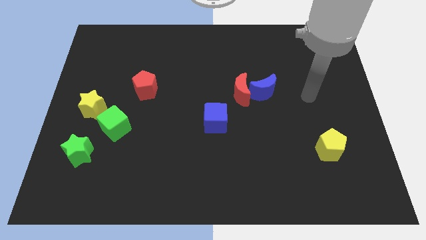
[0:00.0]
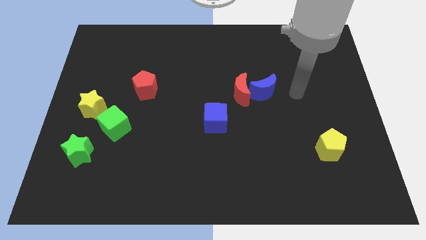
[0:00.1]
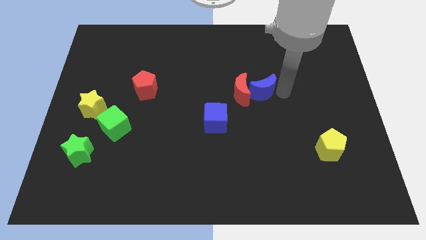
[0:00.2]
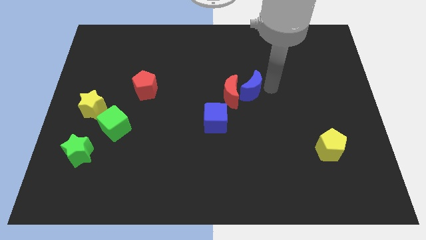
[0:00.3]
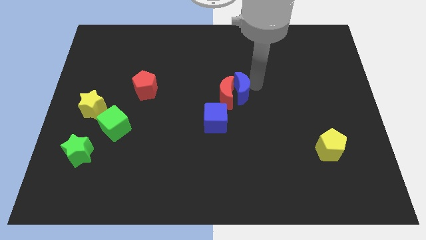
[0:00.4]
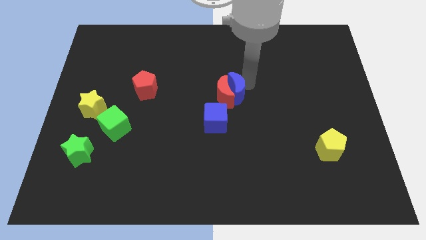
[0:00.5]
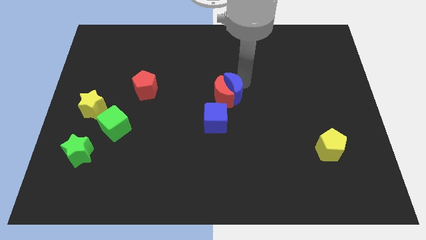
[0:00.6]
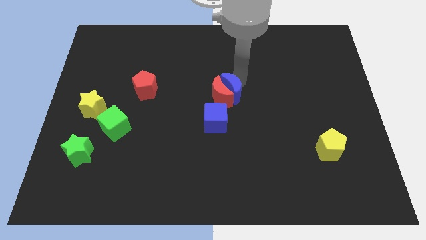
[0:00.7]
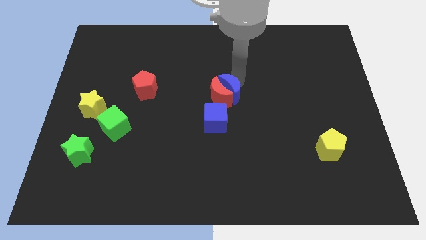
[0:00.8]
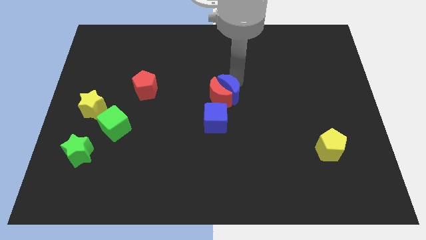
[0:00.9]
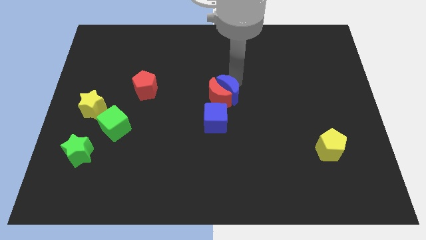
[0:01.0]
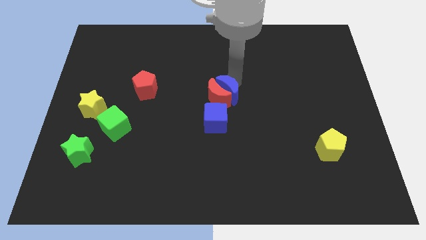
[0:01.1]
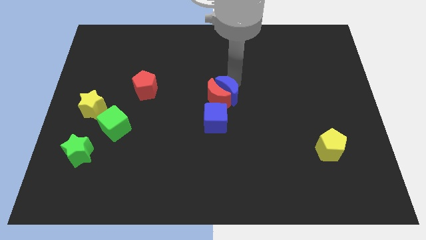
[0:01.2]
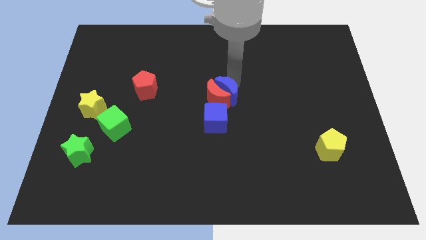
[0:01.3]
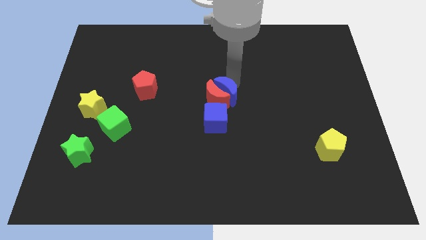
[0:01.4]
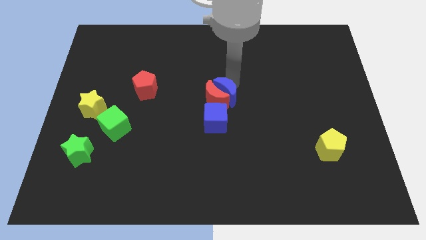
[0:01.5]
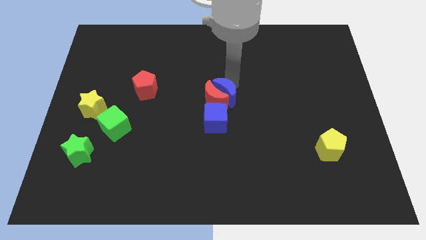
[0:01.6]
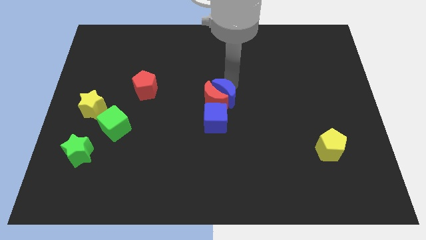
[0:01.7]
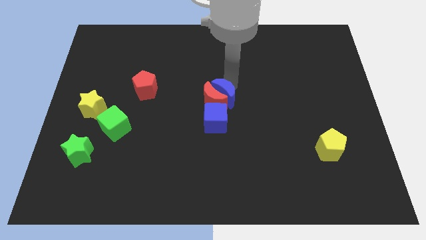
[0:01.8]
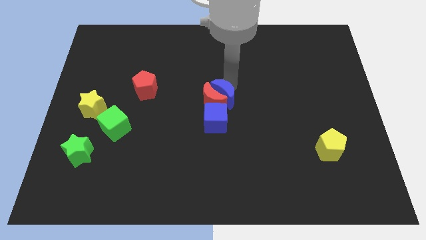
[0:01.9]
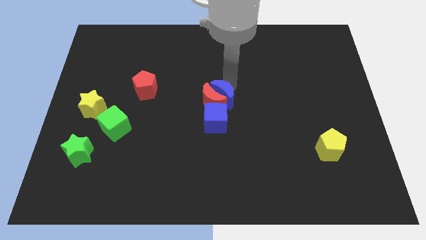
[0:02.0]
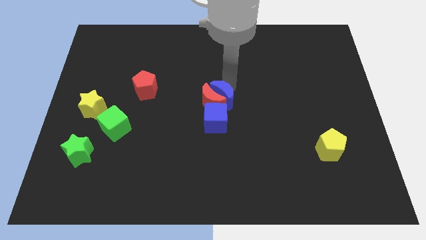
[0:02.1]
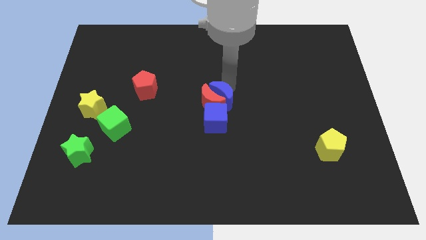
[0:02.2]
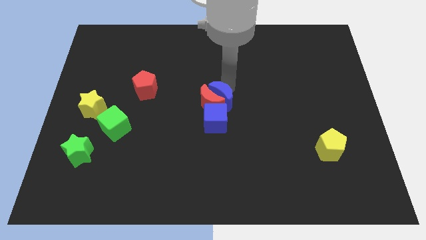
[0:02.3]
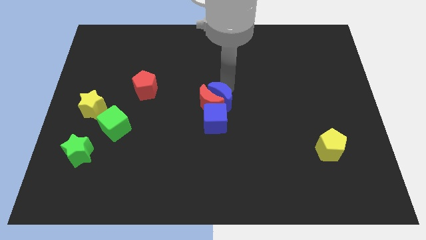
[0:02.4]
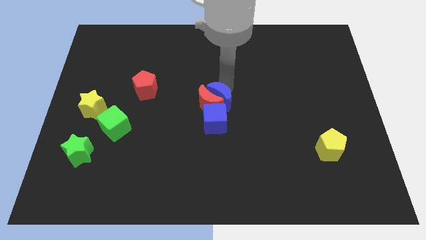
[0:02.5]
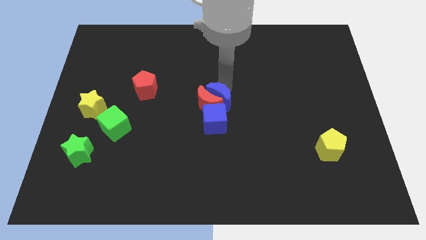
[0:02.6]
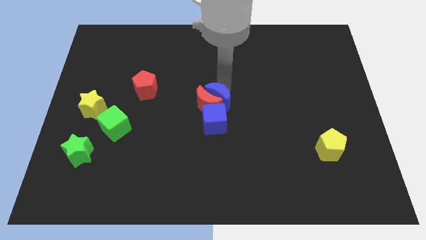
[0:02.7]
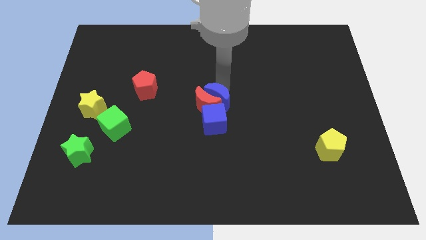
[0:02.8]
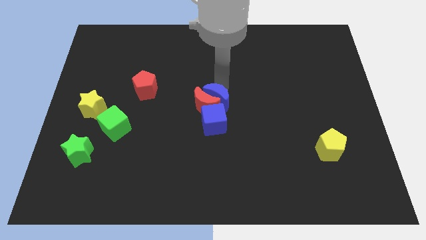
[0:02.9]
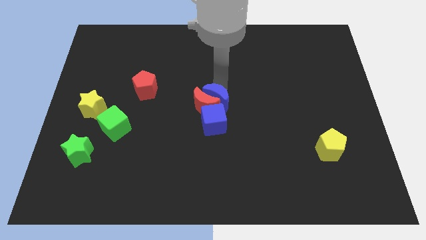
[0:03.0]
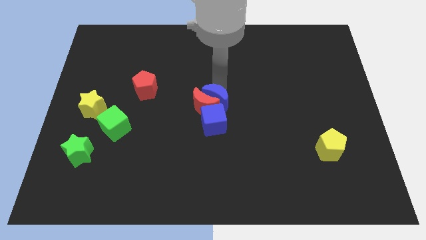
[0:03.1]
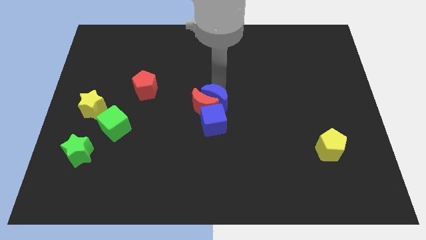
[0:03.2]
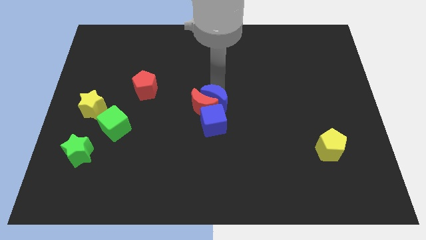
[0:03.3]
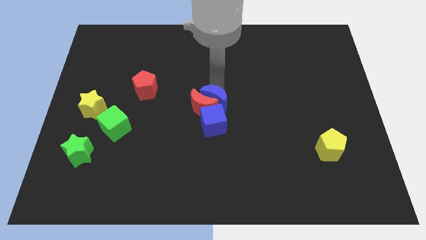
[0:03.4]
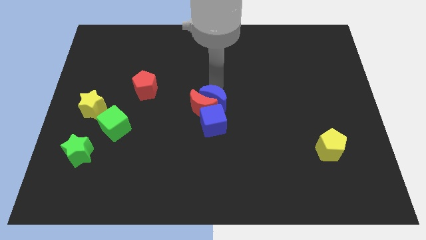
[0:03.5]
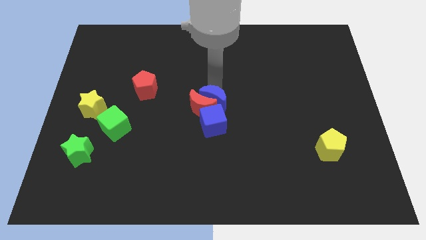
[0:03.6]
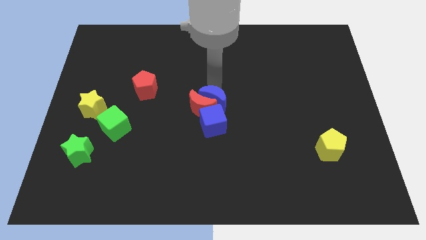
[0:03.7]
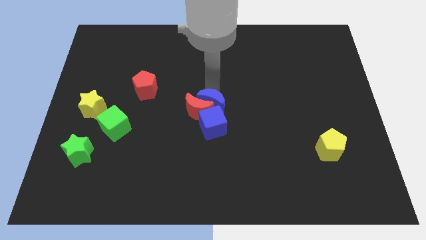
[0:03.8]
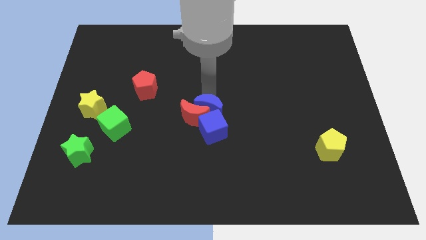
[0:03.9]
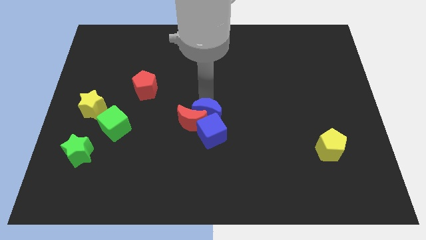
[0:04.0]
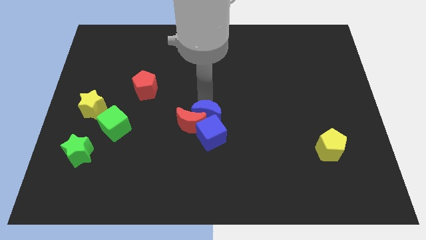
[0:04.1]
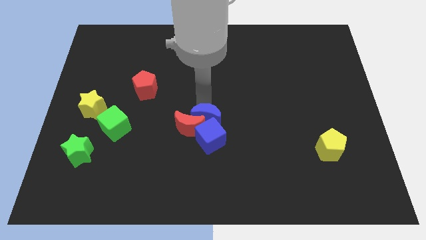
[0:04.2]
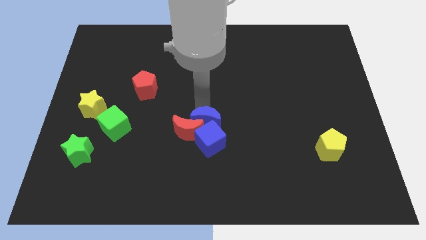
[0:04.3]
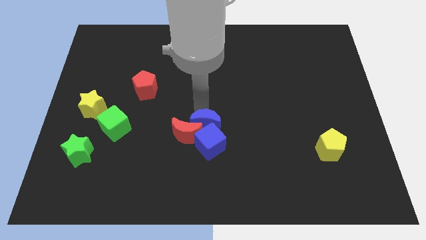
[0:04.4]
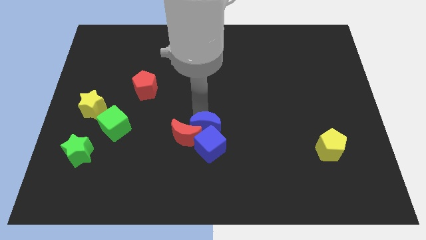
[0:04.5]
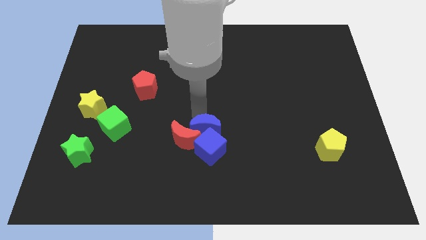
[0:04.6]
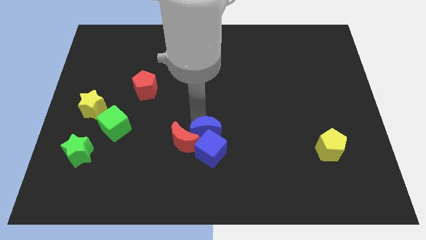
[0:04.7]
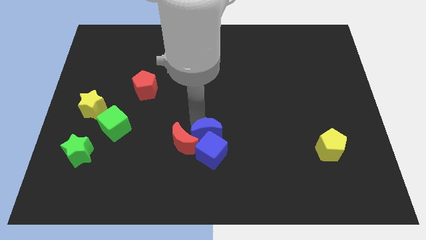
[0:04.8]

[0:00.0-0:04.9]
push the red moon downwards and to the left

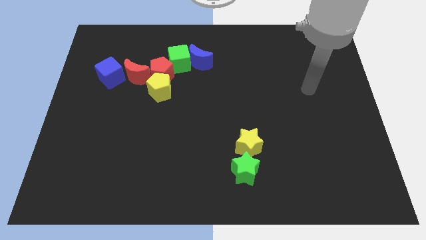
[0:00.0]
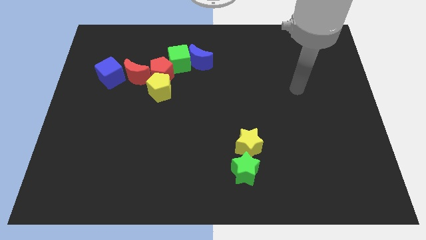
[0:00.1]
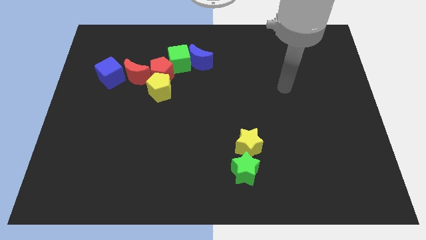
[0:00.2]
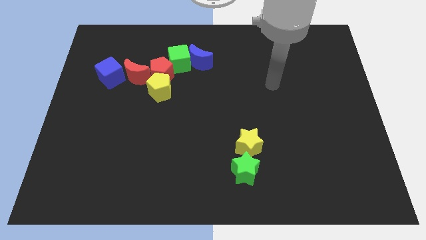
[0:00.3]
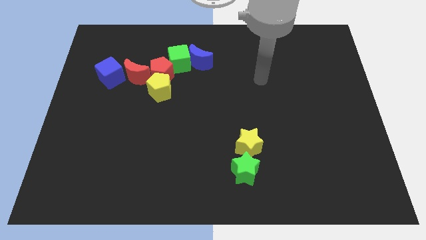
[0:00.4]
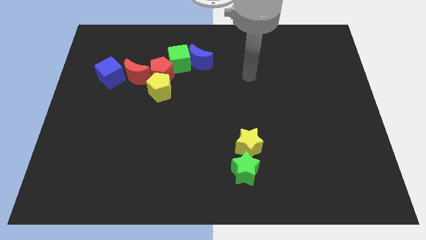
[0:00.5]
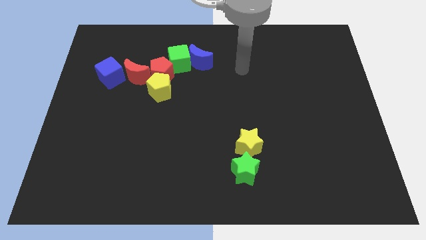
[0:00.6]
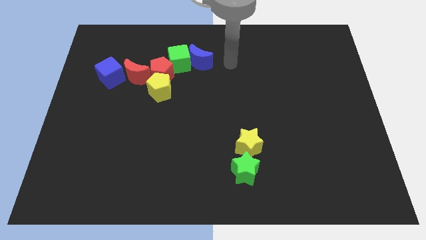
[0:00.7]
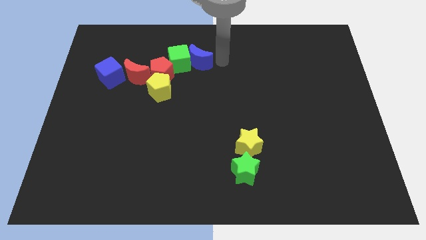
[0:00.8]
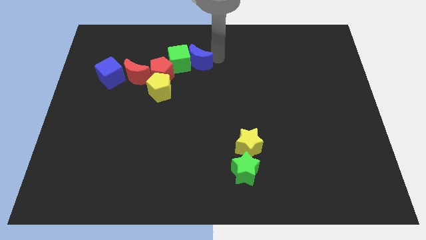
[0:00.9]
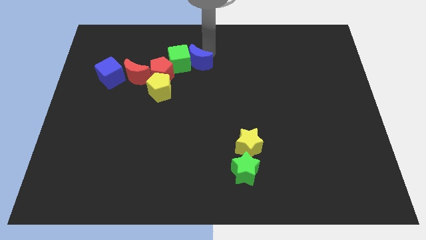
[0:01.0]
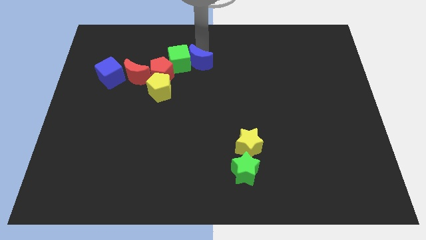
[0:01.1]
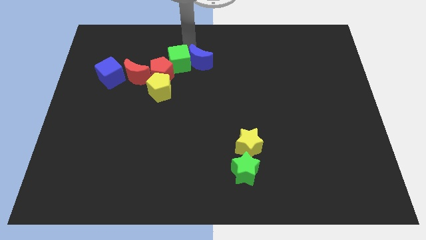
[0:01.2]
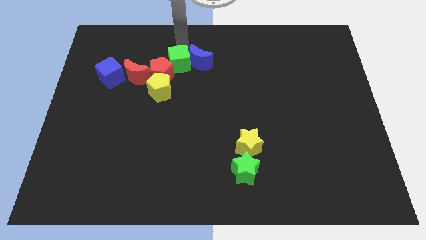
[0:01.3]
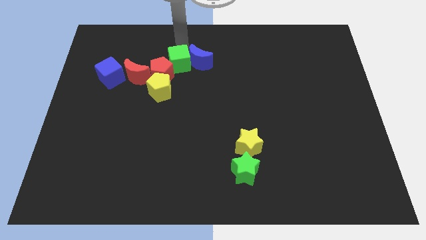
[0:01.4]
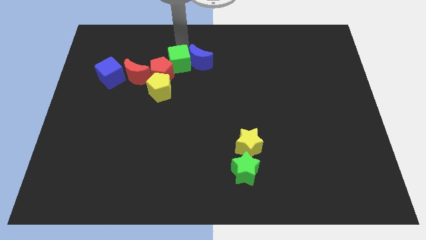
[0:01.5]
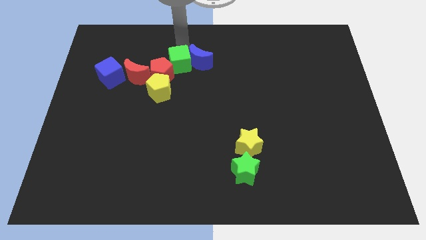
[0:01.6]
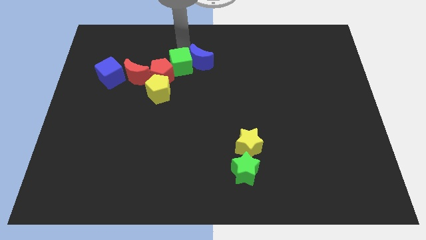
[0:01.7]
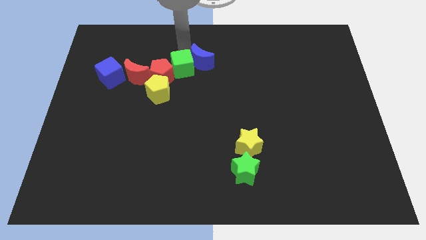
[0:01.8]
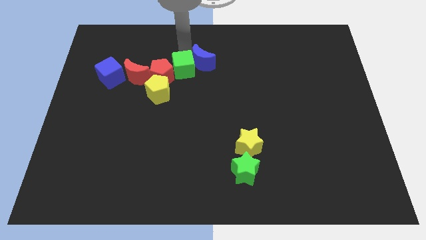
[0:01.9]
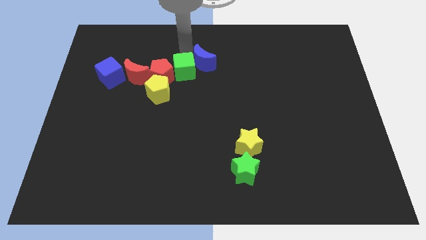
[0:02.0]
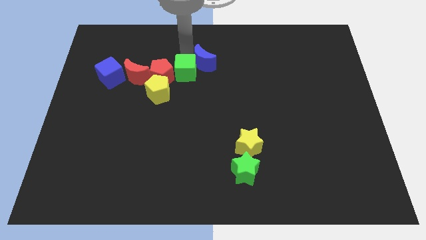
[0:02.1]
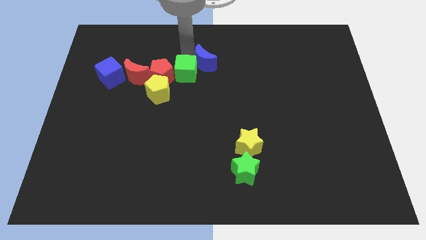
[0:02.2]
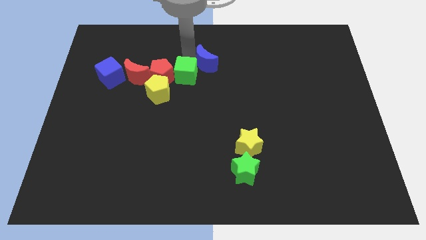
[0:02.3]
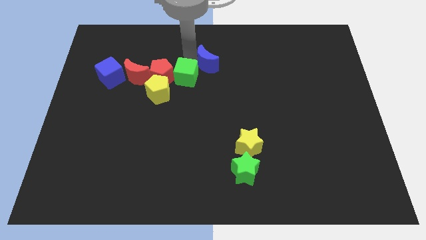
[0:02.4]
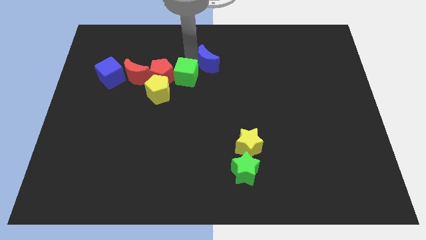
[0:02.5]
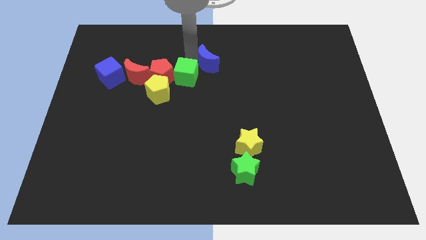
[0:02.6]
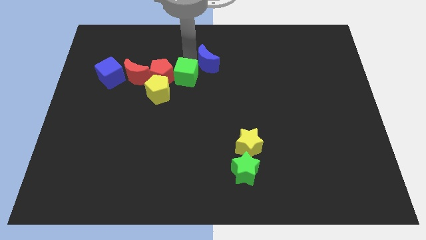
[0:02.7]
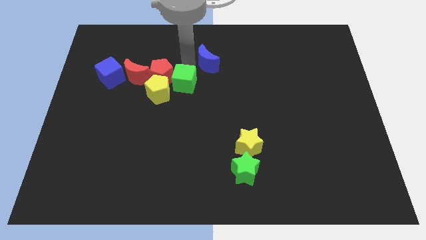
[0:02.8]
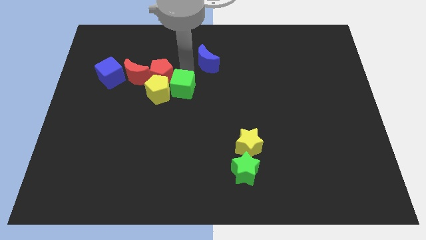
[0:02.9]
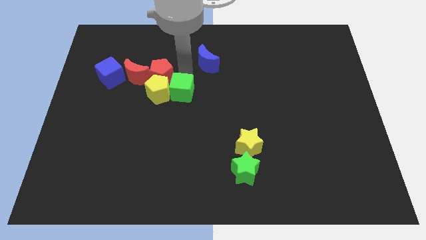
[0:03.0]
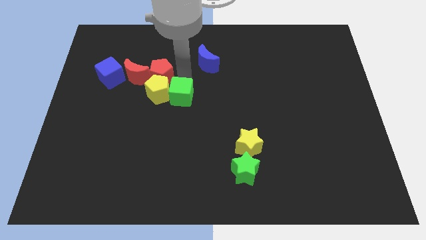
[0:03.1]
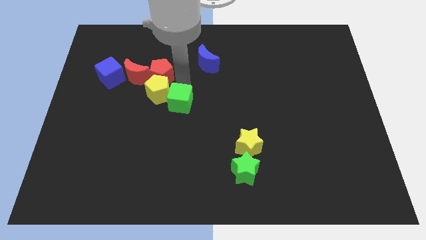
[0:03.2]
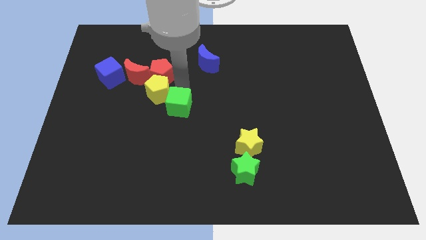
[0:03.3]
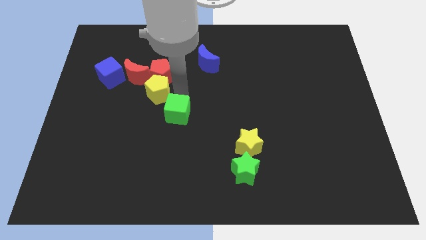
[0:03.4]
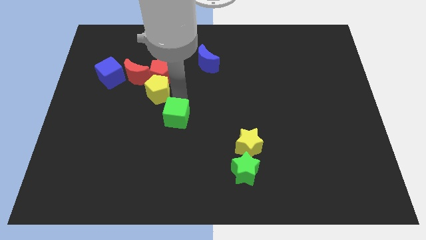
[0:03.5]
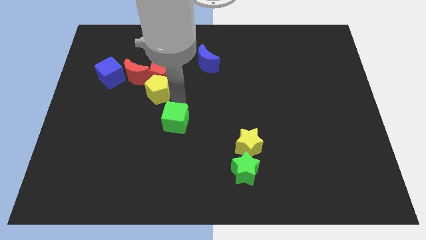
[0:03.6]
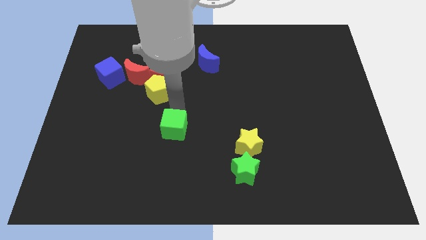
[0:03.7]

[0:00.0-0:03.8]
move the green cube down
